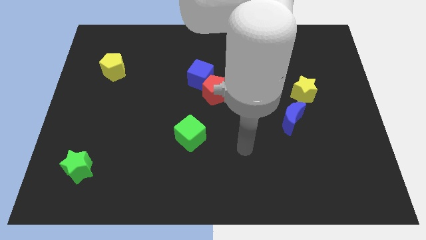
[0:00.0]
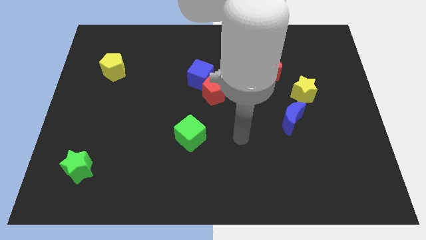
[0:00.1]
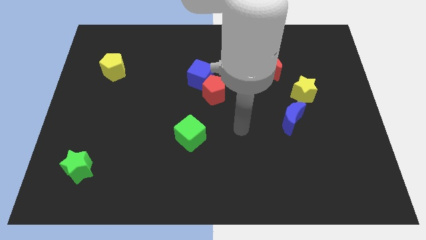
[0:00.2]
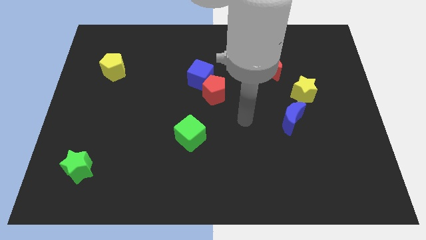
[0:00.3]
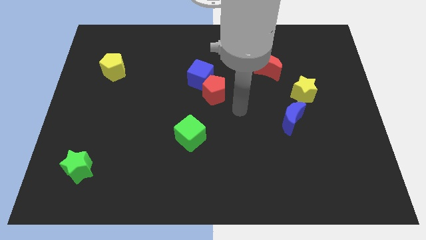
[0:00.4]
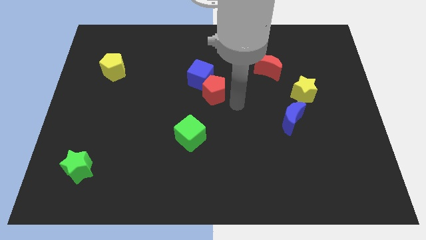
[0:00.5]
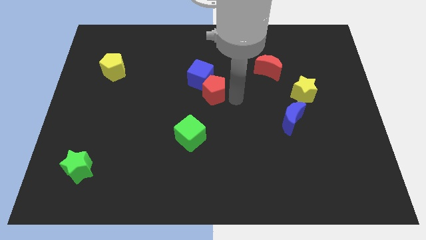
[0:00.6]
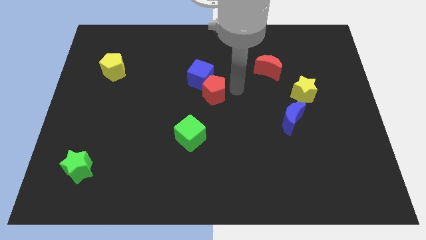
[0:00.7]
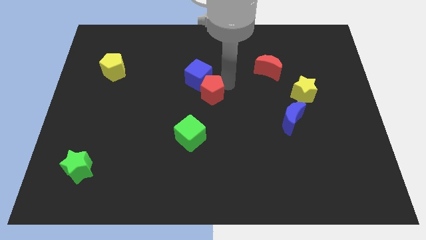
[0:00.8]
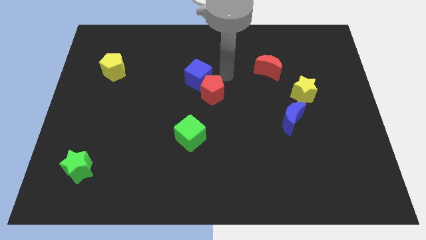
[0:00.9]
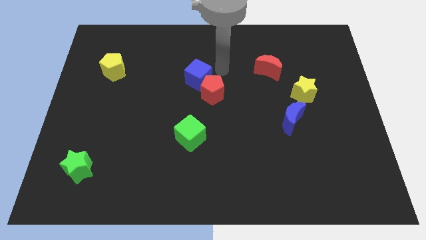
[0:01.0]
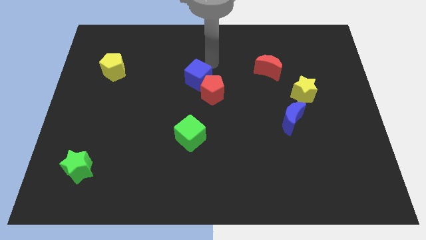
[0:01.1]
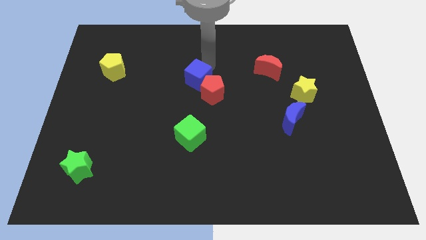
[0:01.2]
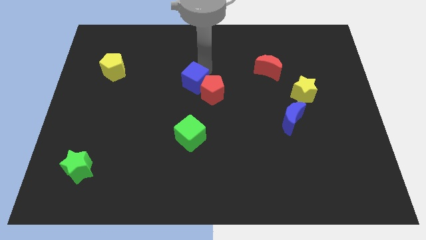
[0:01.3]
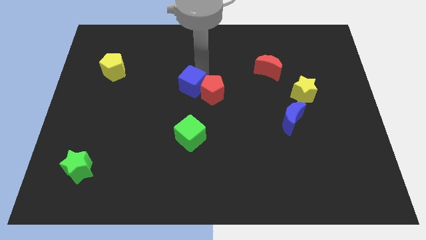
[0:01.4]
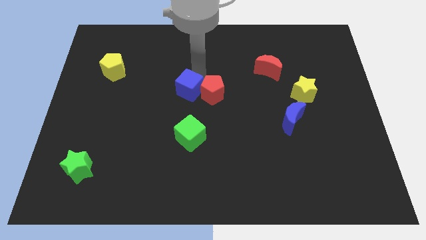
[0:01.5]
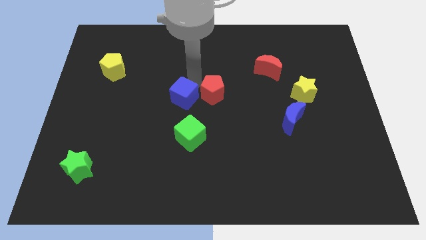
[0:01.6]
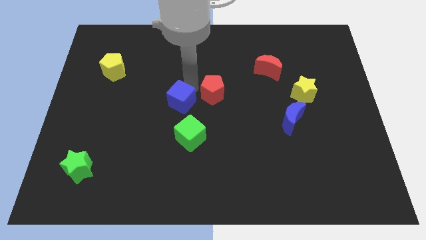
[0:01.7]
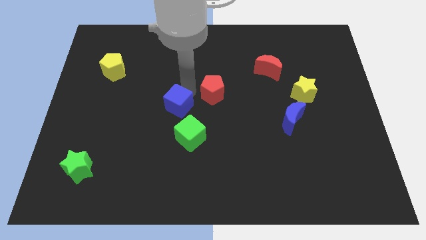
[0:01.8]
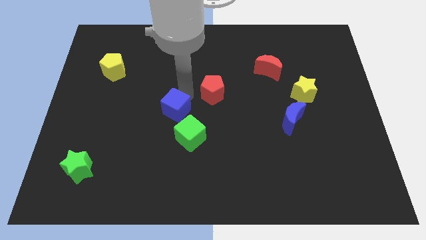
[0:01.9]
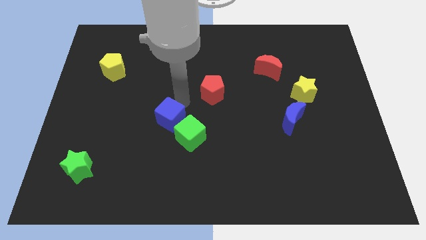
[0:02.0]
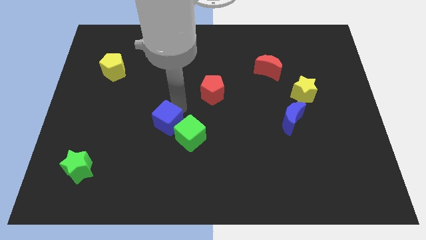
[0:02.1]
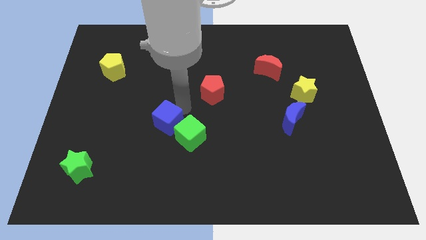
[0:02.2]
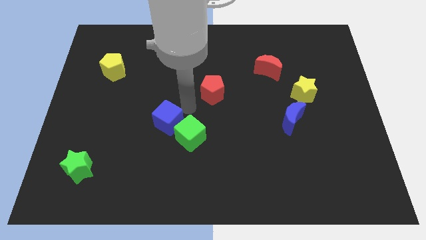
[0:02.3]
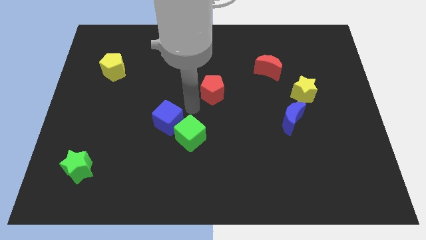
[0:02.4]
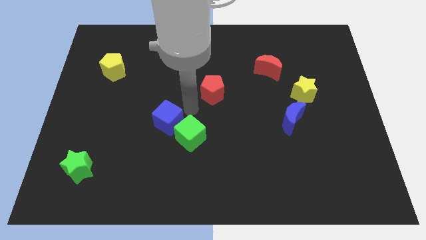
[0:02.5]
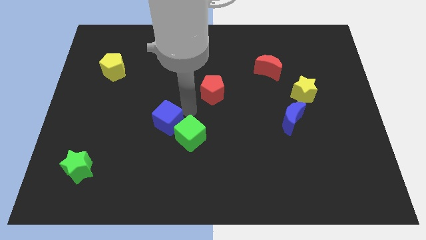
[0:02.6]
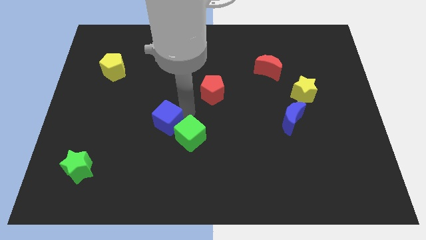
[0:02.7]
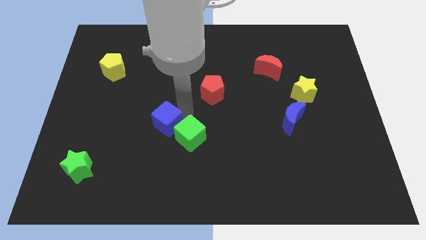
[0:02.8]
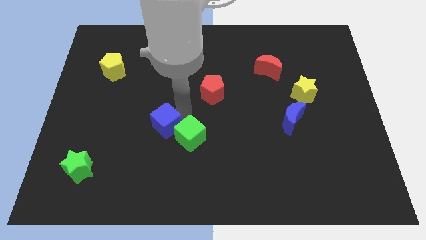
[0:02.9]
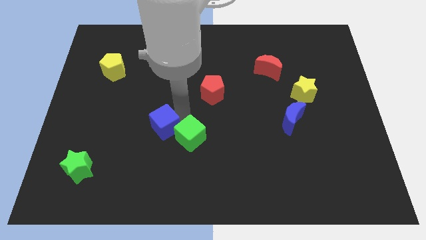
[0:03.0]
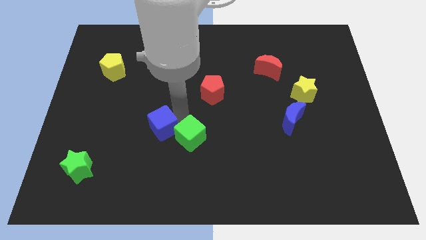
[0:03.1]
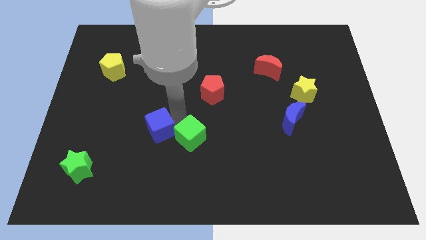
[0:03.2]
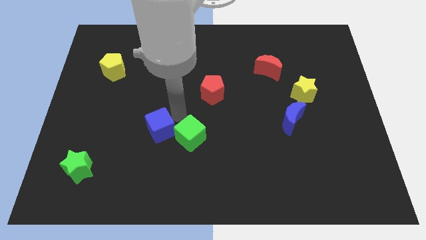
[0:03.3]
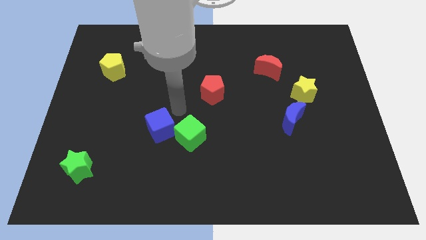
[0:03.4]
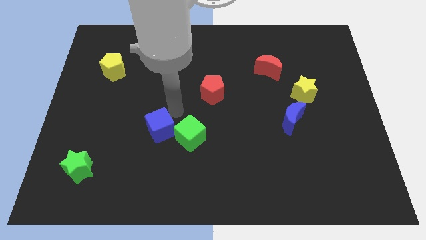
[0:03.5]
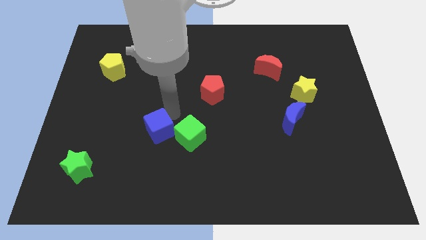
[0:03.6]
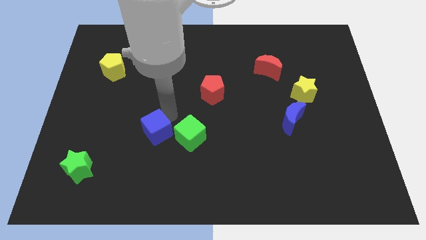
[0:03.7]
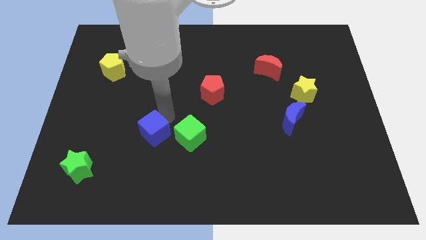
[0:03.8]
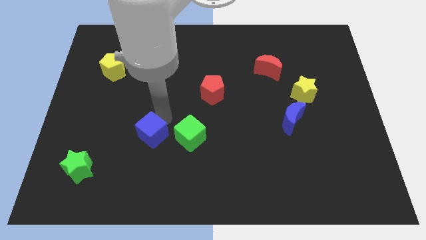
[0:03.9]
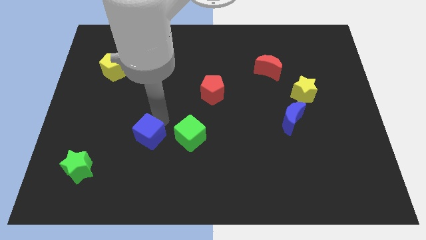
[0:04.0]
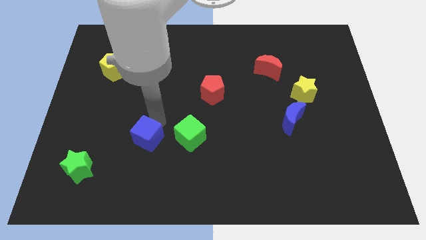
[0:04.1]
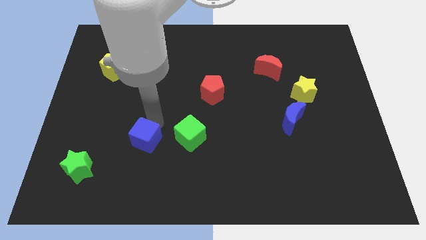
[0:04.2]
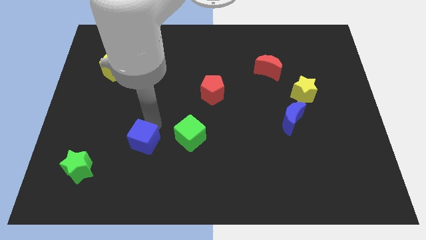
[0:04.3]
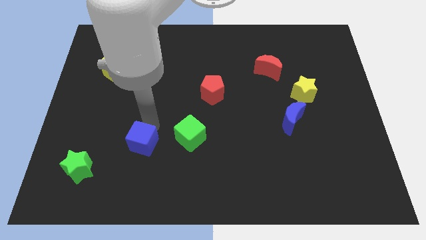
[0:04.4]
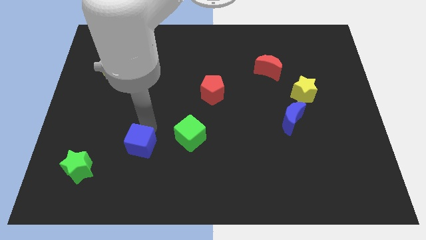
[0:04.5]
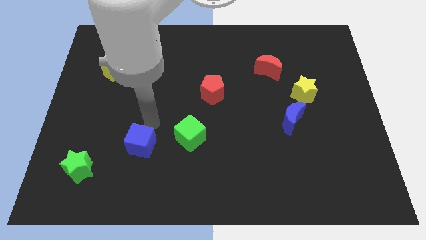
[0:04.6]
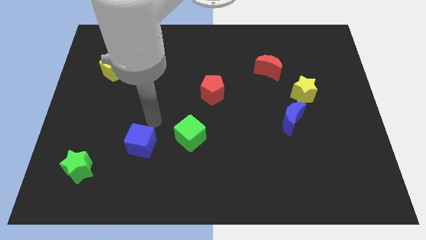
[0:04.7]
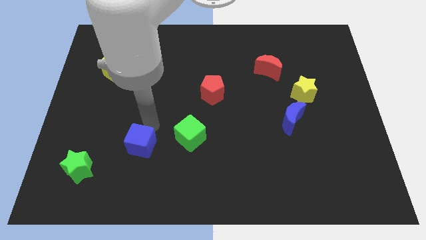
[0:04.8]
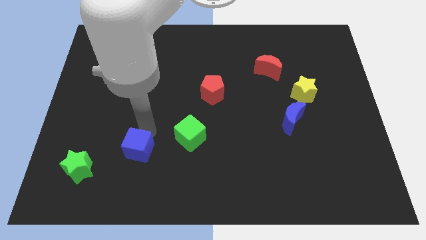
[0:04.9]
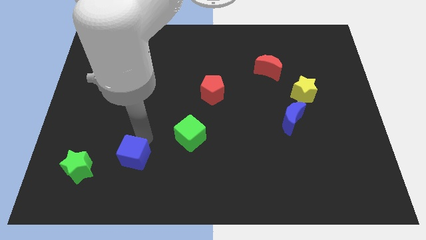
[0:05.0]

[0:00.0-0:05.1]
slide the blue cube to the right of the green star

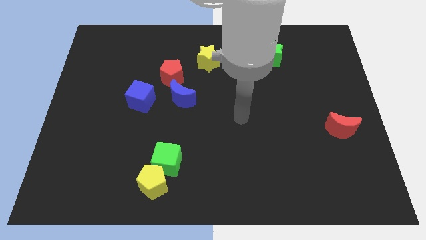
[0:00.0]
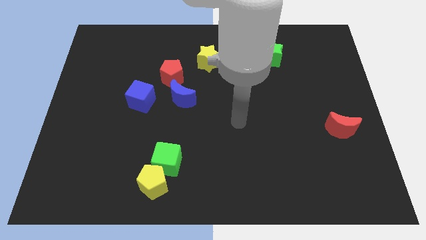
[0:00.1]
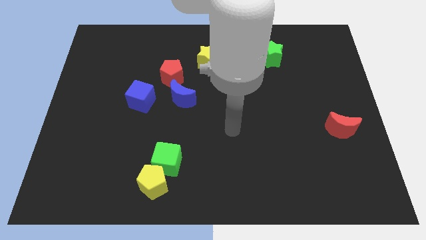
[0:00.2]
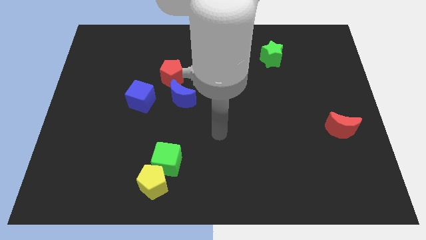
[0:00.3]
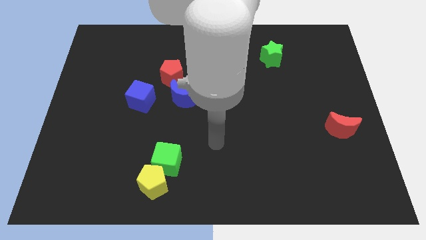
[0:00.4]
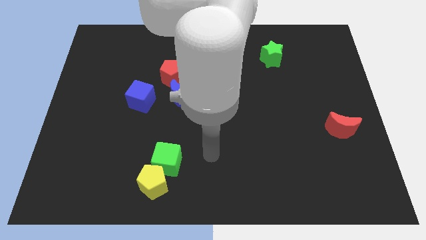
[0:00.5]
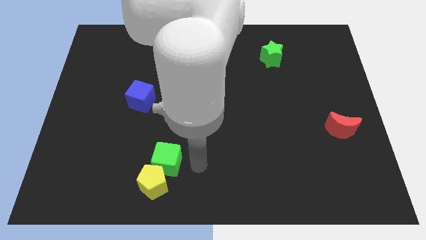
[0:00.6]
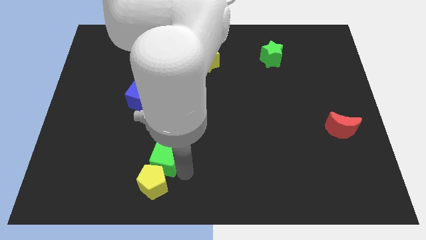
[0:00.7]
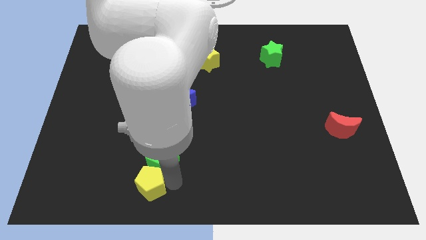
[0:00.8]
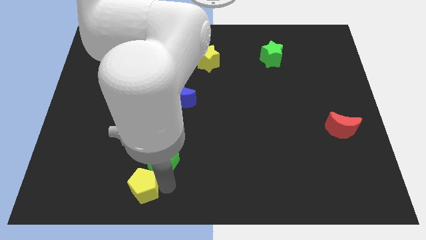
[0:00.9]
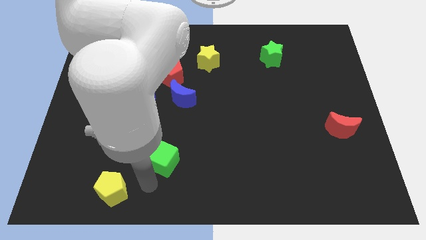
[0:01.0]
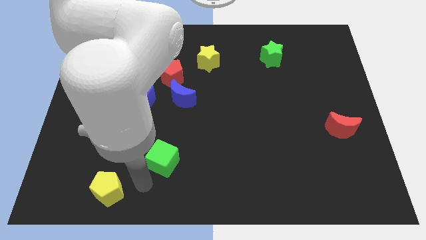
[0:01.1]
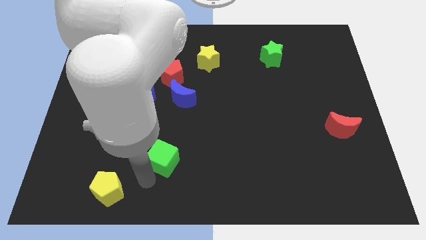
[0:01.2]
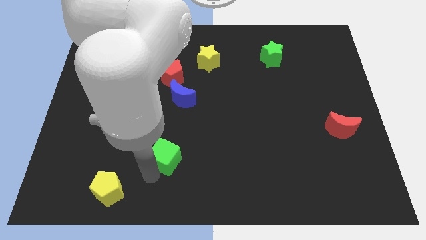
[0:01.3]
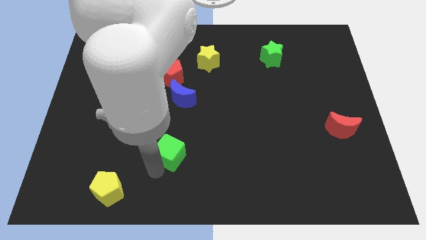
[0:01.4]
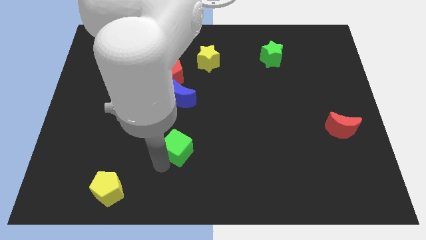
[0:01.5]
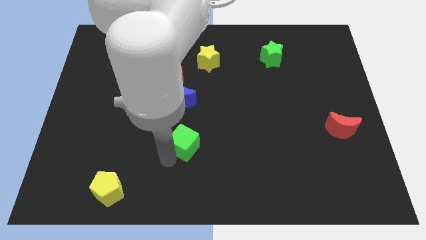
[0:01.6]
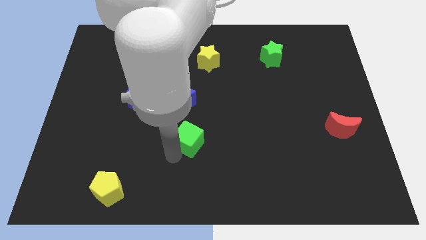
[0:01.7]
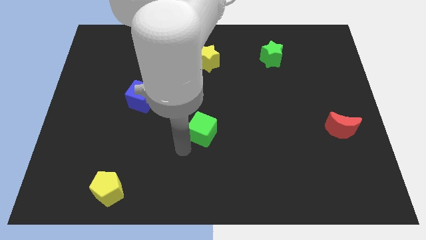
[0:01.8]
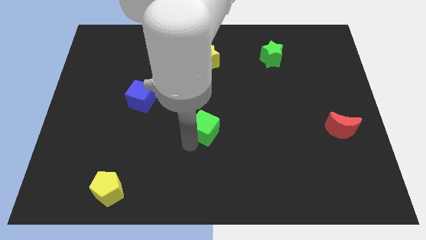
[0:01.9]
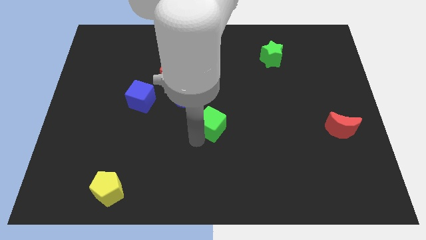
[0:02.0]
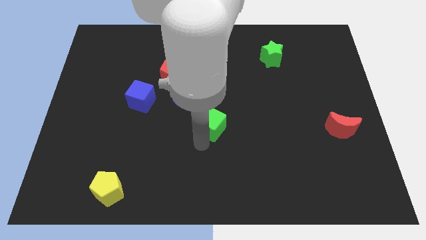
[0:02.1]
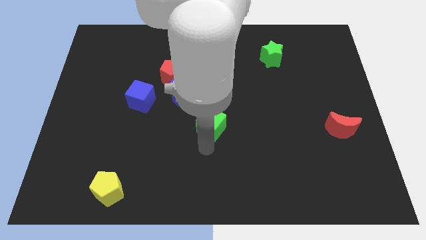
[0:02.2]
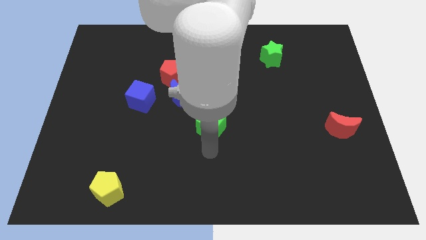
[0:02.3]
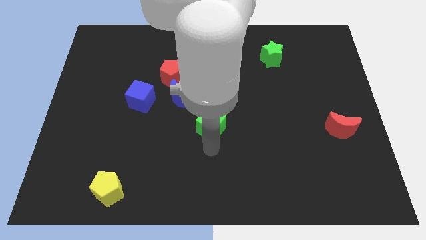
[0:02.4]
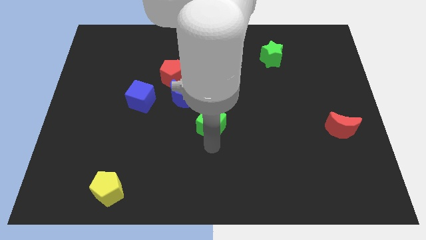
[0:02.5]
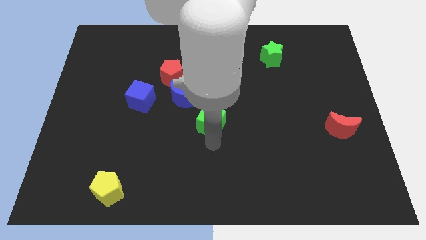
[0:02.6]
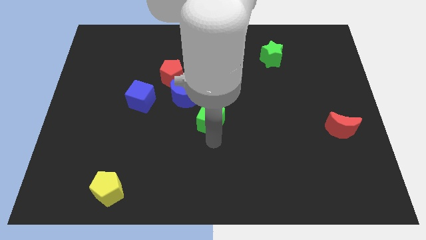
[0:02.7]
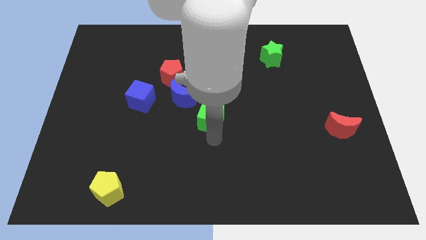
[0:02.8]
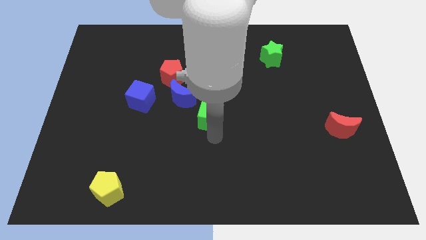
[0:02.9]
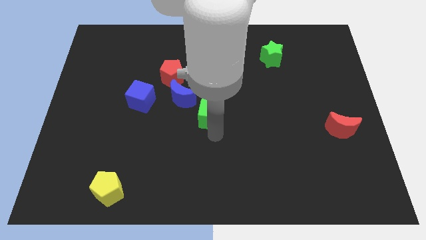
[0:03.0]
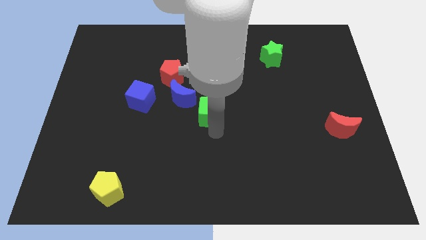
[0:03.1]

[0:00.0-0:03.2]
put the green cube just right of the blue moon

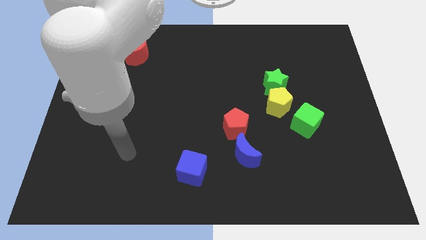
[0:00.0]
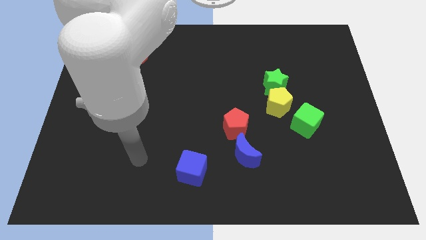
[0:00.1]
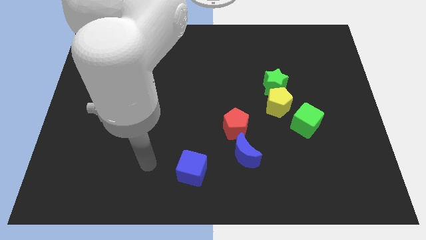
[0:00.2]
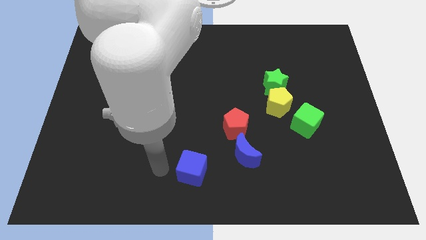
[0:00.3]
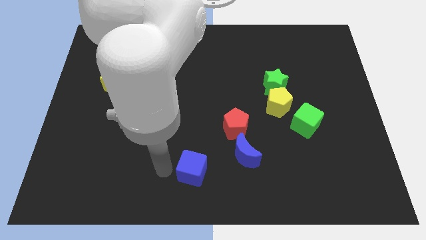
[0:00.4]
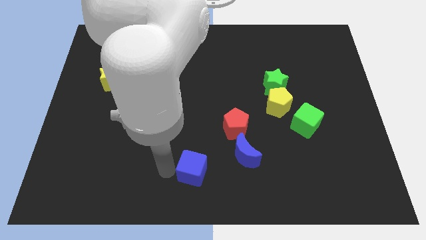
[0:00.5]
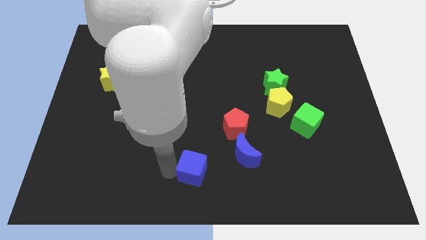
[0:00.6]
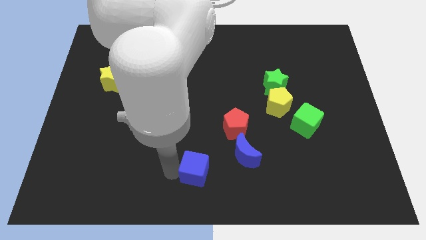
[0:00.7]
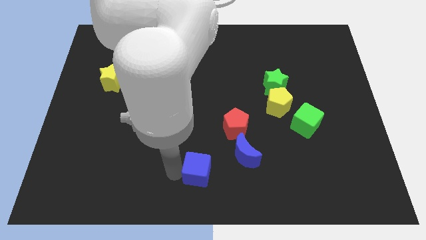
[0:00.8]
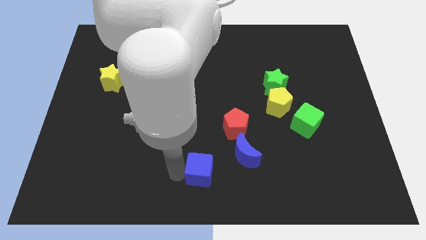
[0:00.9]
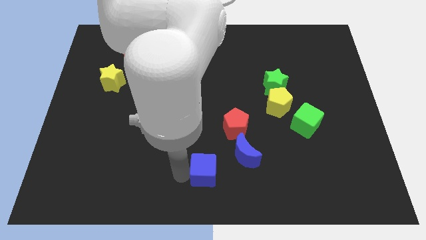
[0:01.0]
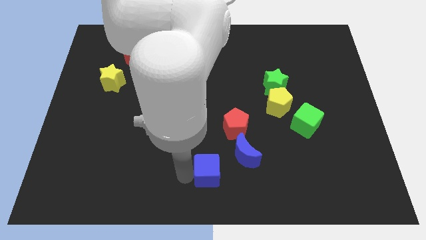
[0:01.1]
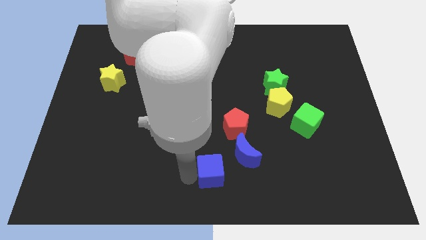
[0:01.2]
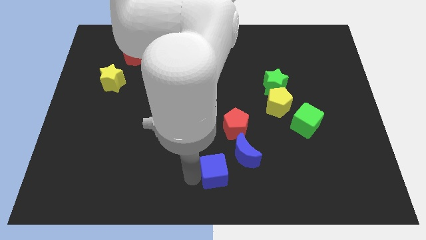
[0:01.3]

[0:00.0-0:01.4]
slide the blue cube to the bottom side of the red pentagon
